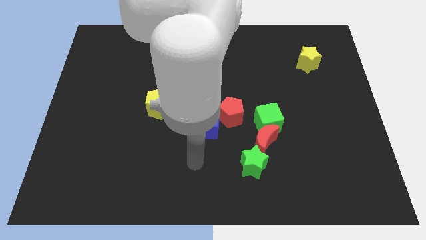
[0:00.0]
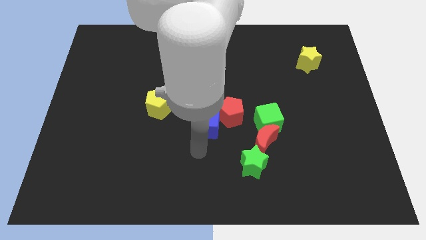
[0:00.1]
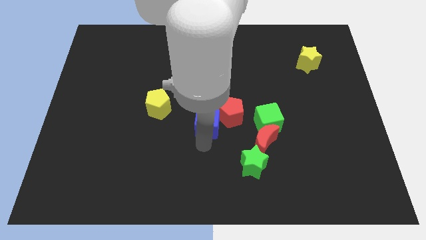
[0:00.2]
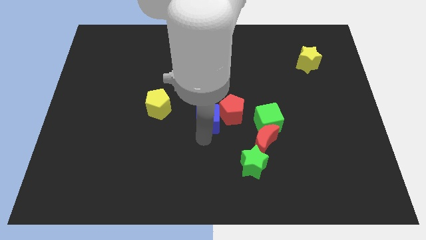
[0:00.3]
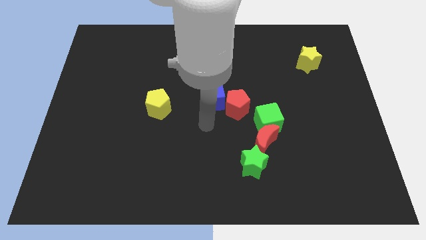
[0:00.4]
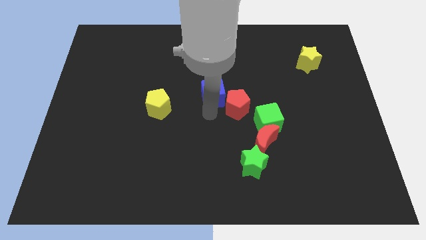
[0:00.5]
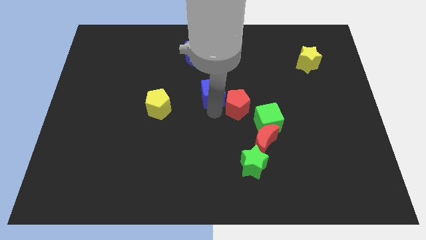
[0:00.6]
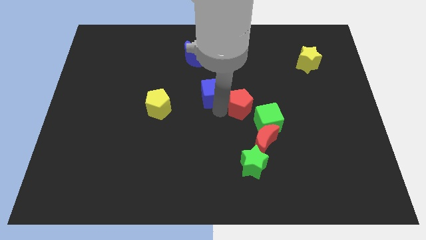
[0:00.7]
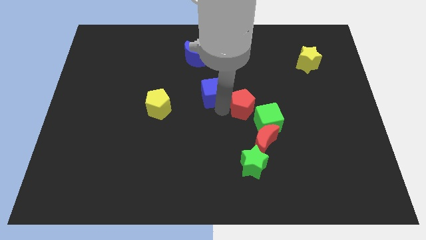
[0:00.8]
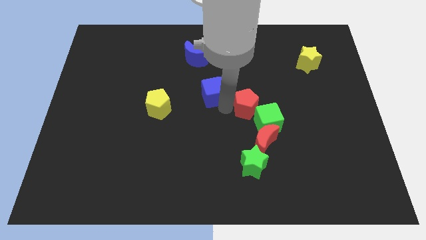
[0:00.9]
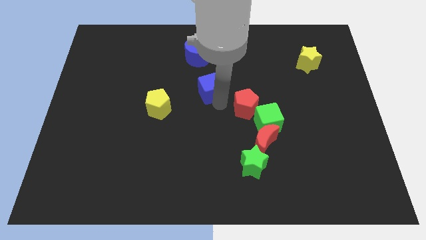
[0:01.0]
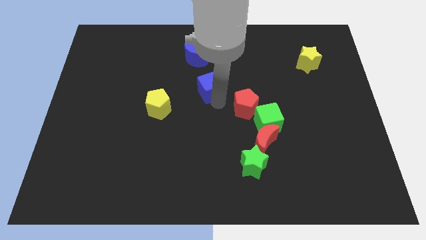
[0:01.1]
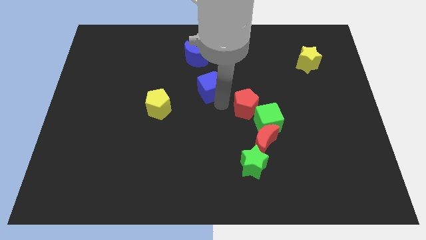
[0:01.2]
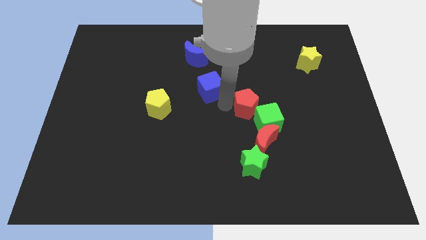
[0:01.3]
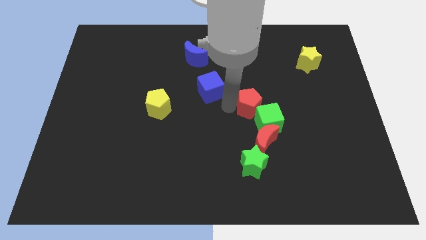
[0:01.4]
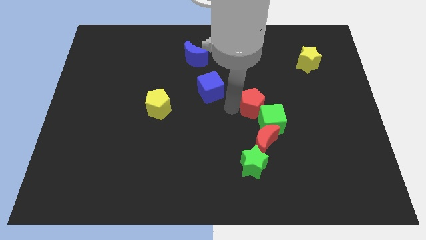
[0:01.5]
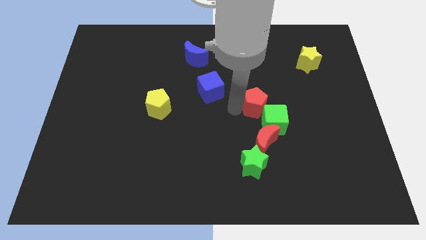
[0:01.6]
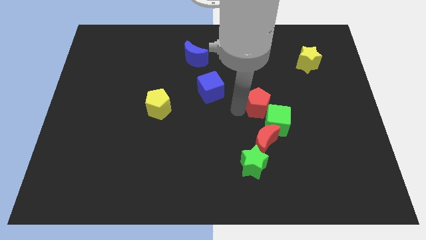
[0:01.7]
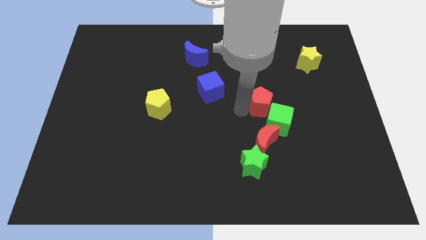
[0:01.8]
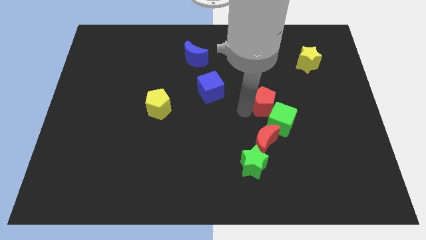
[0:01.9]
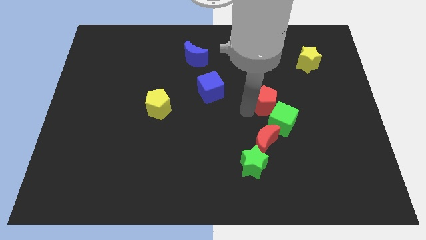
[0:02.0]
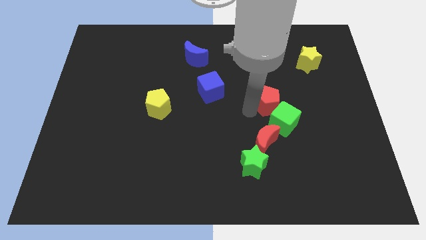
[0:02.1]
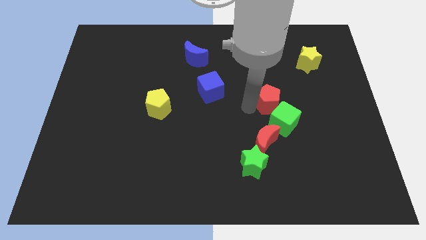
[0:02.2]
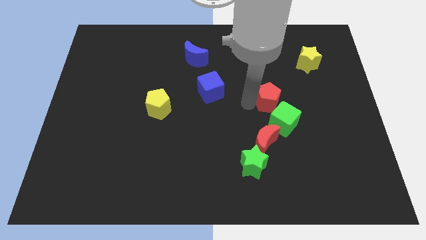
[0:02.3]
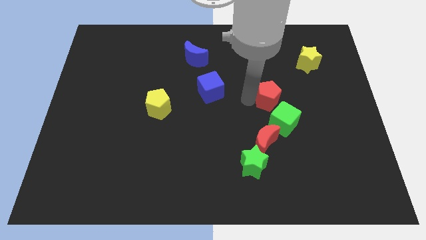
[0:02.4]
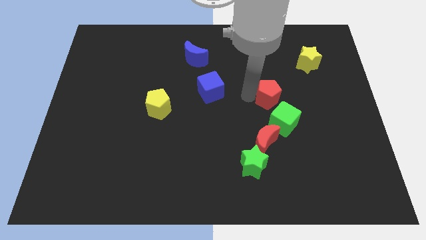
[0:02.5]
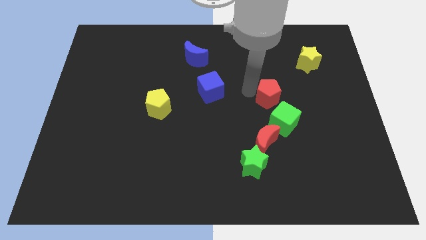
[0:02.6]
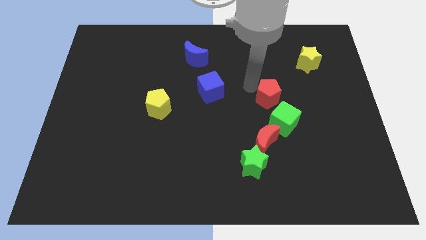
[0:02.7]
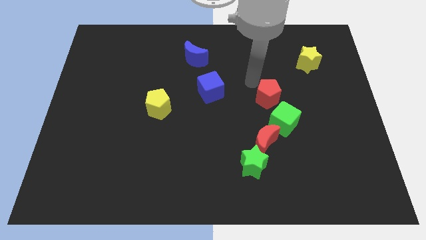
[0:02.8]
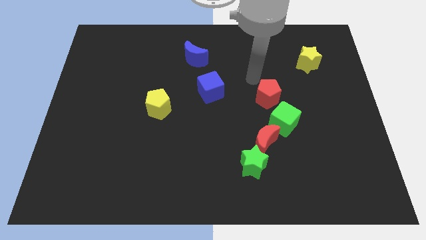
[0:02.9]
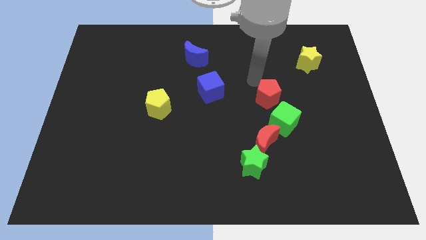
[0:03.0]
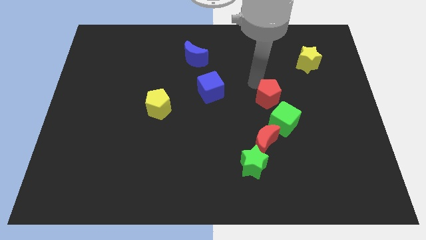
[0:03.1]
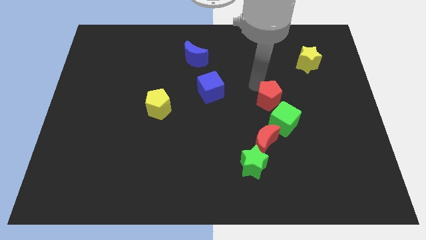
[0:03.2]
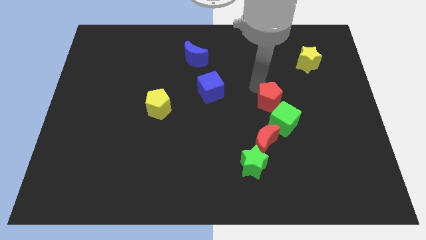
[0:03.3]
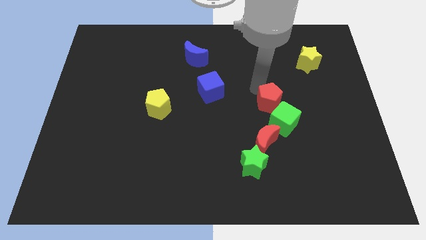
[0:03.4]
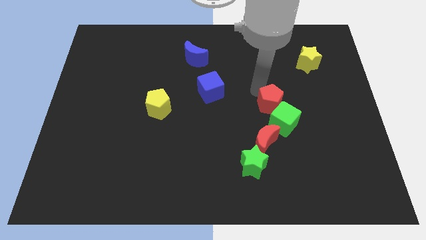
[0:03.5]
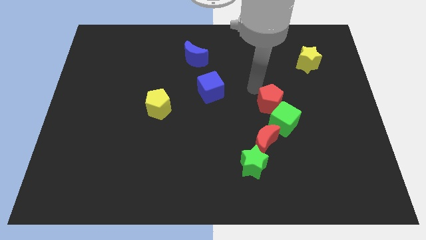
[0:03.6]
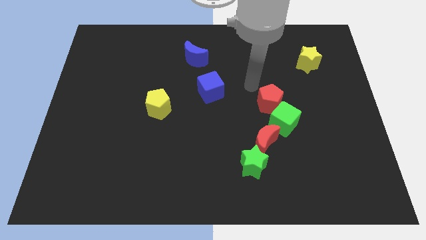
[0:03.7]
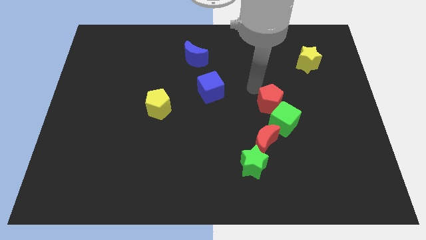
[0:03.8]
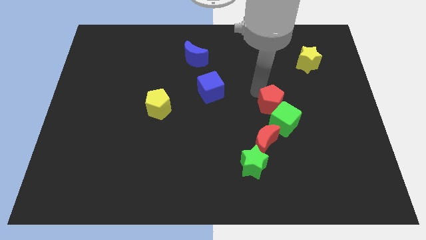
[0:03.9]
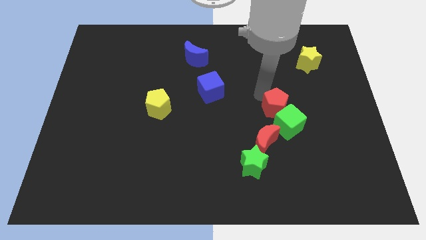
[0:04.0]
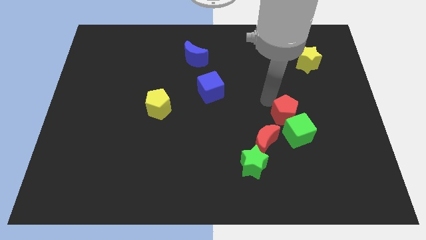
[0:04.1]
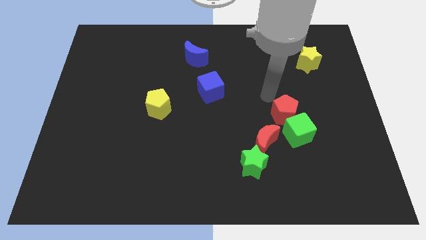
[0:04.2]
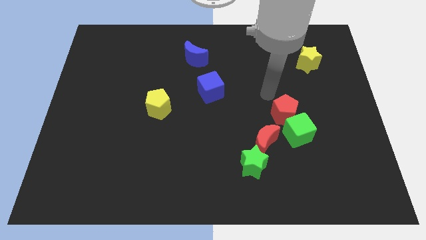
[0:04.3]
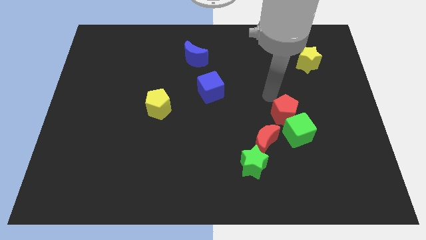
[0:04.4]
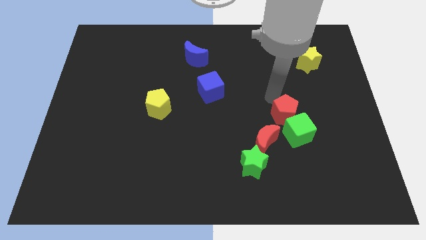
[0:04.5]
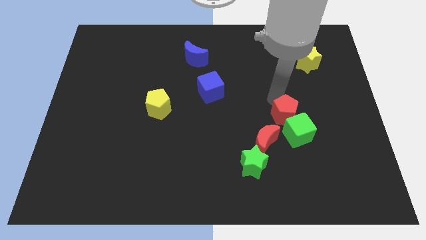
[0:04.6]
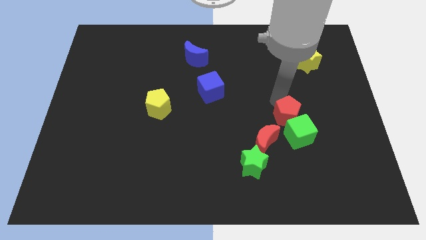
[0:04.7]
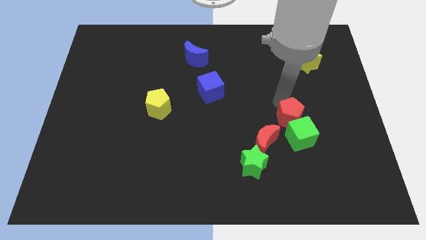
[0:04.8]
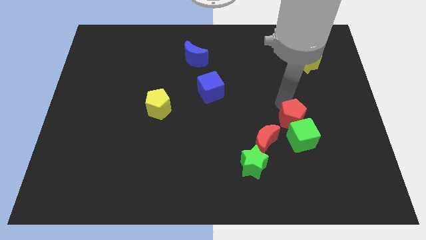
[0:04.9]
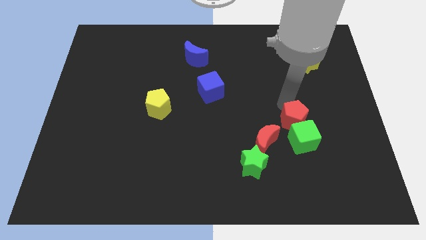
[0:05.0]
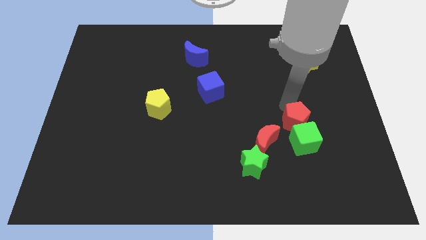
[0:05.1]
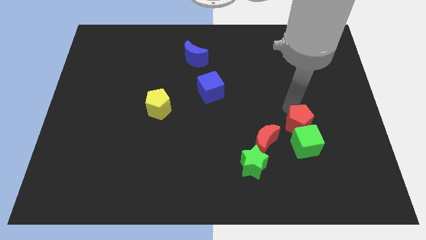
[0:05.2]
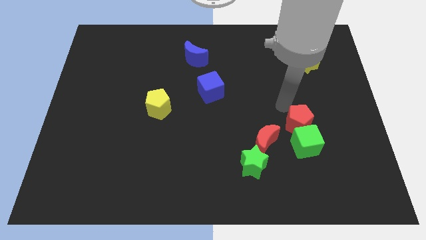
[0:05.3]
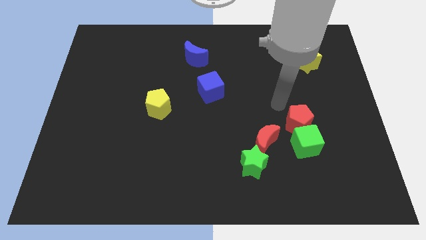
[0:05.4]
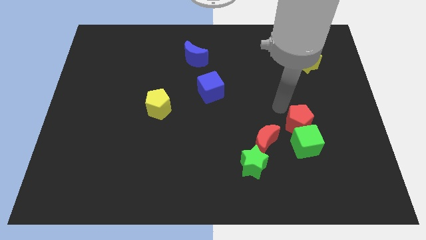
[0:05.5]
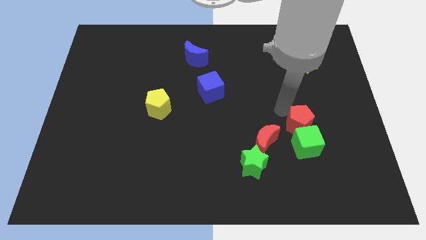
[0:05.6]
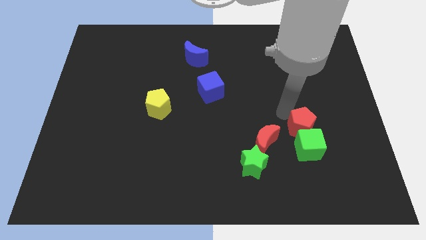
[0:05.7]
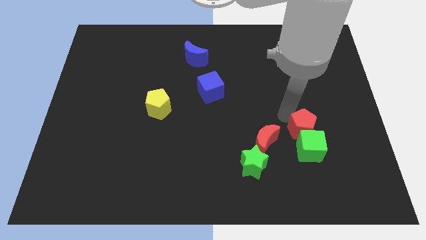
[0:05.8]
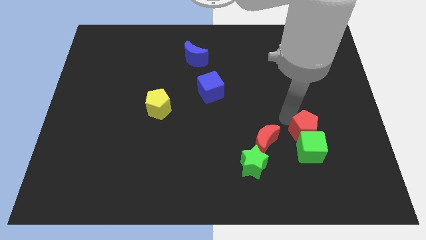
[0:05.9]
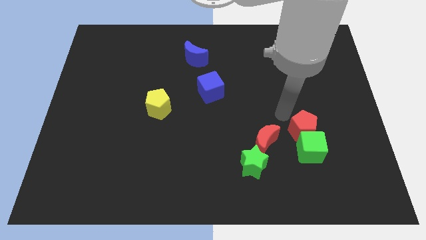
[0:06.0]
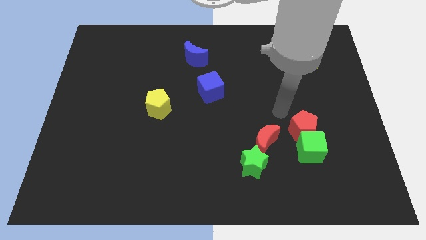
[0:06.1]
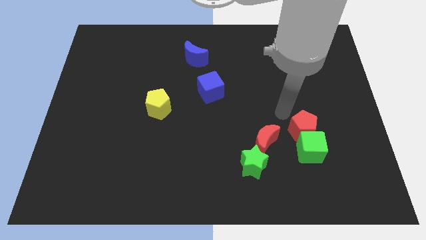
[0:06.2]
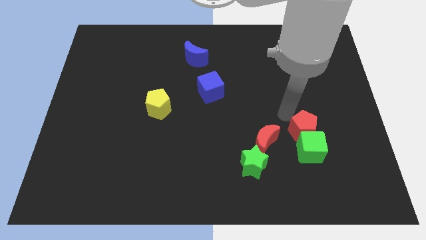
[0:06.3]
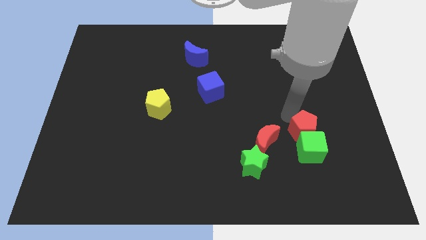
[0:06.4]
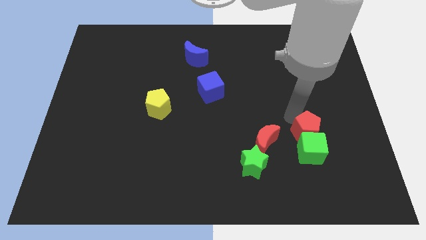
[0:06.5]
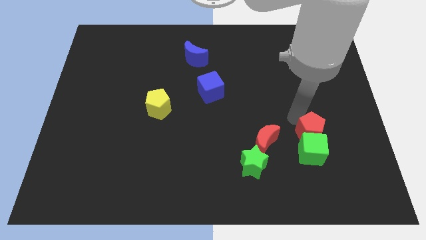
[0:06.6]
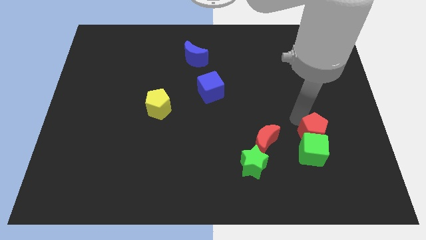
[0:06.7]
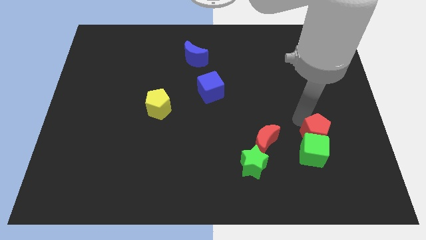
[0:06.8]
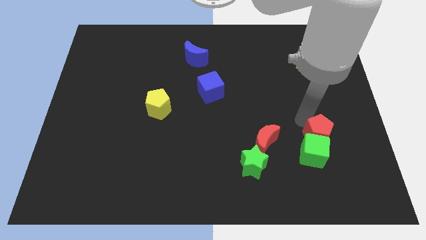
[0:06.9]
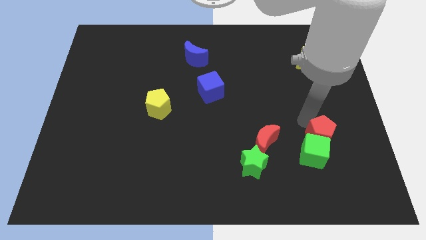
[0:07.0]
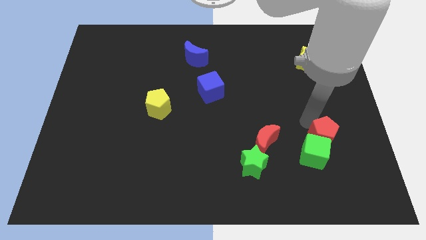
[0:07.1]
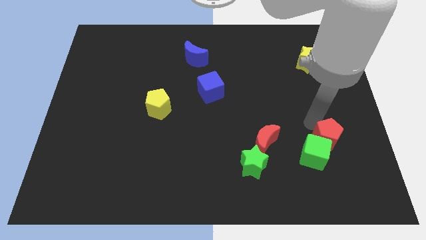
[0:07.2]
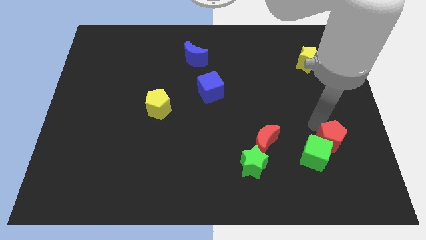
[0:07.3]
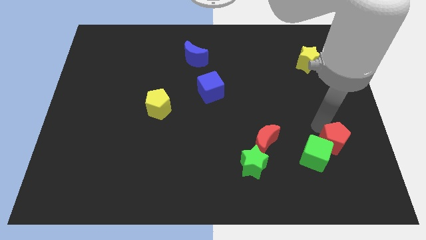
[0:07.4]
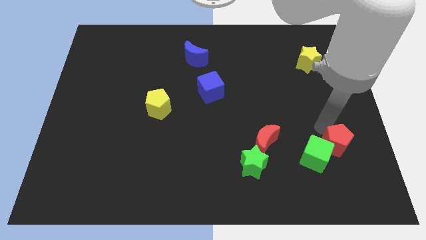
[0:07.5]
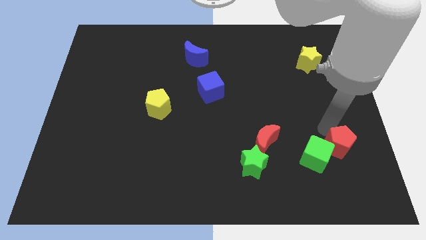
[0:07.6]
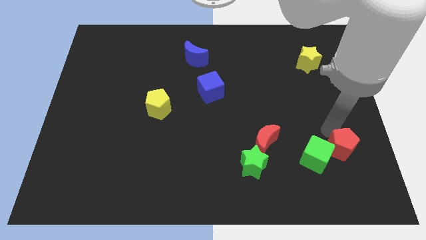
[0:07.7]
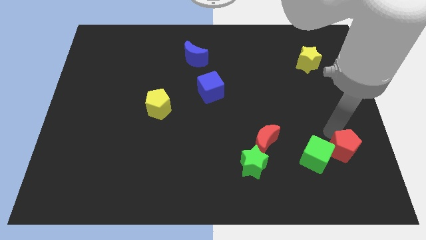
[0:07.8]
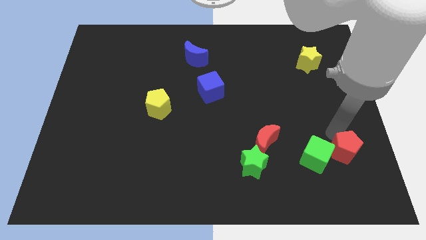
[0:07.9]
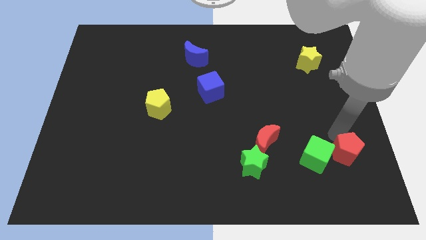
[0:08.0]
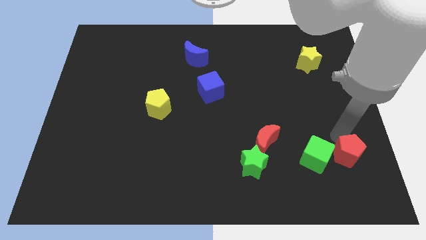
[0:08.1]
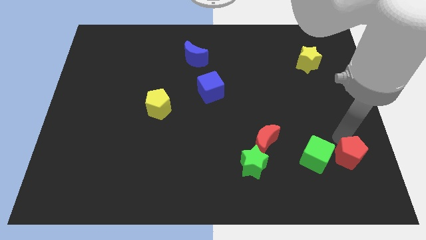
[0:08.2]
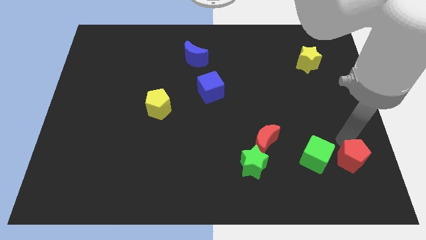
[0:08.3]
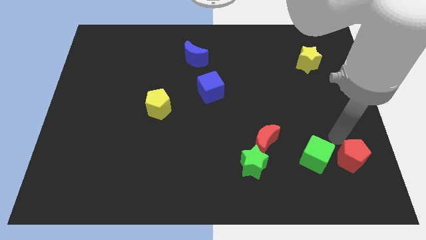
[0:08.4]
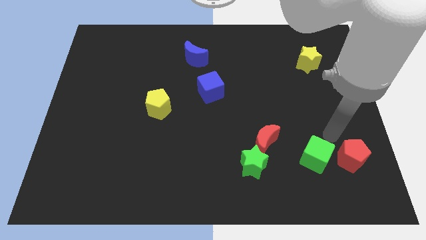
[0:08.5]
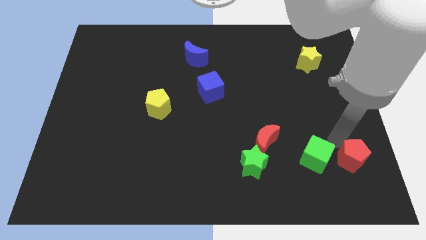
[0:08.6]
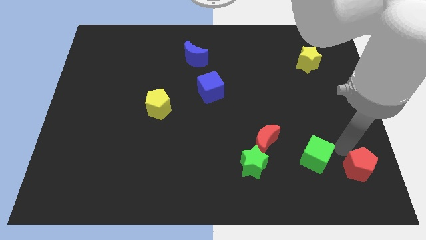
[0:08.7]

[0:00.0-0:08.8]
slide the red pentagon to the bottom right corner
